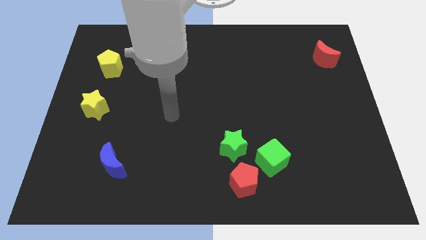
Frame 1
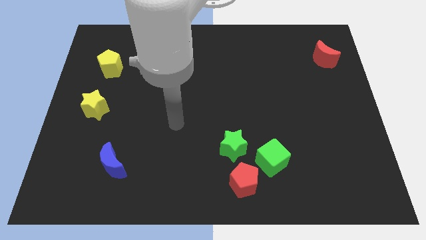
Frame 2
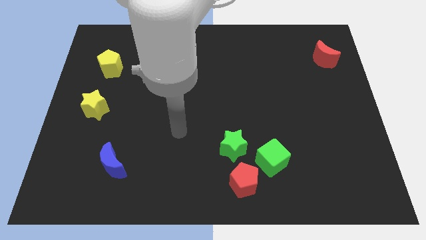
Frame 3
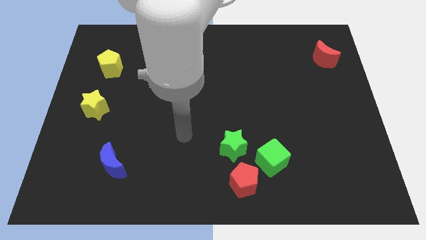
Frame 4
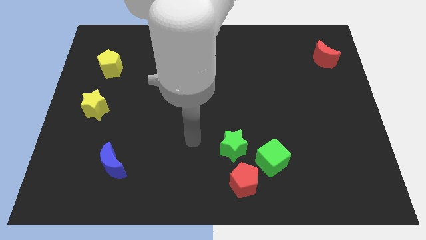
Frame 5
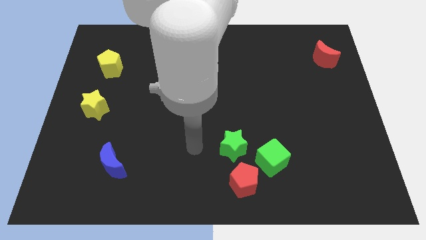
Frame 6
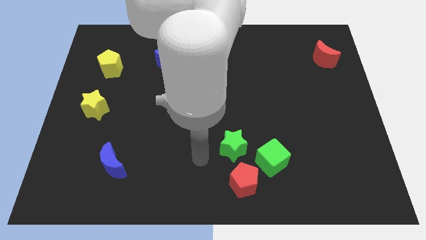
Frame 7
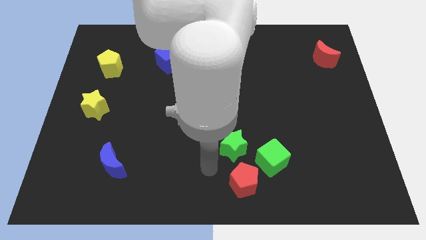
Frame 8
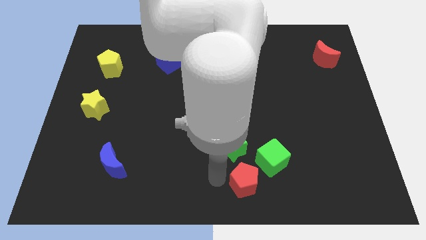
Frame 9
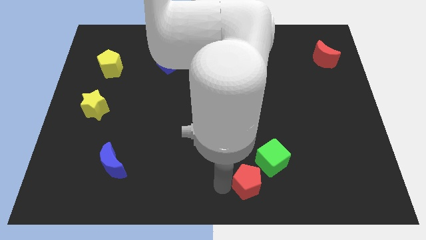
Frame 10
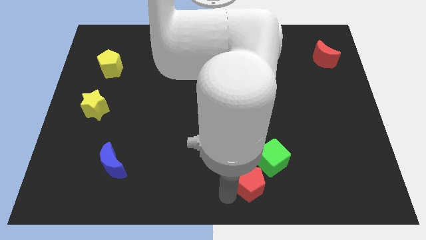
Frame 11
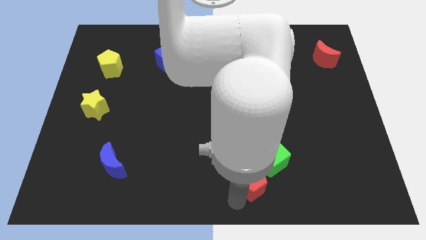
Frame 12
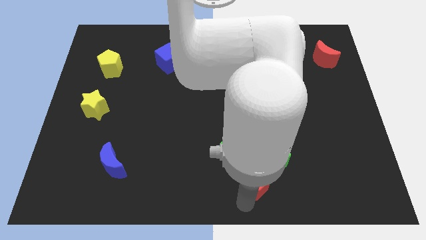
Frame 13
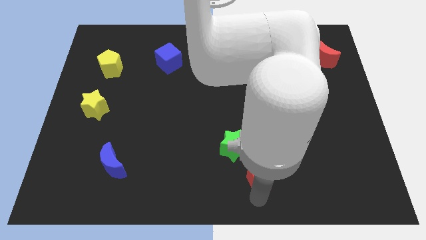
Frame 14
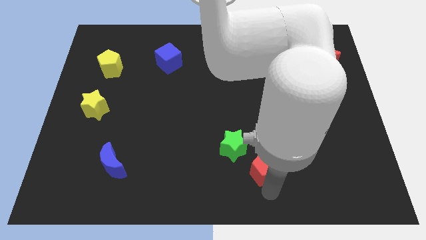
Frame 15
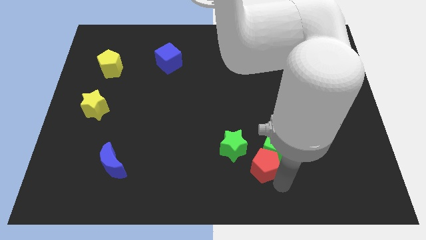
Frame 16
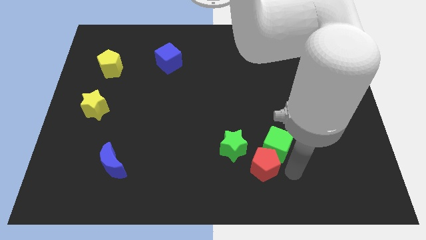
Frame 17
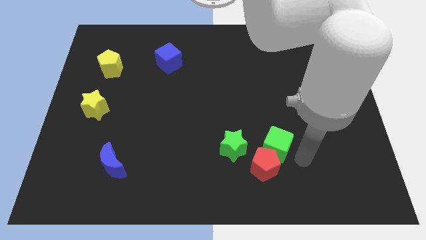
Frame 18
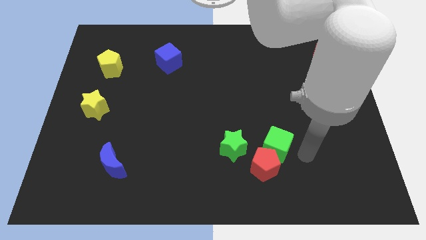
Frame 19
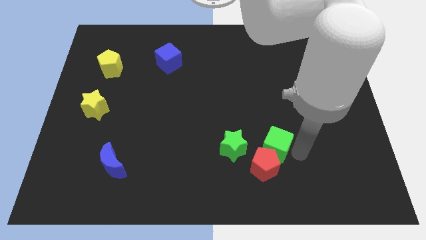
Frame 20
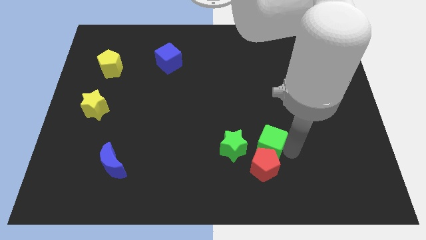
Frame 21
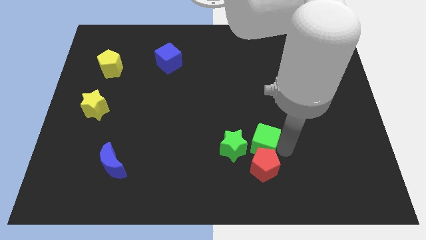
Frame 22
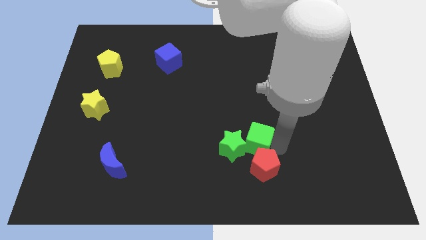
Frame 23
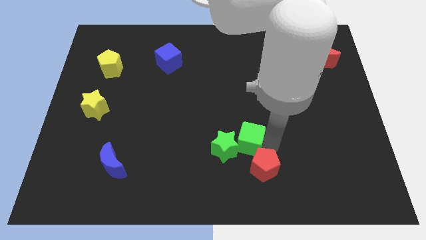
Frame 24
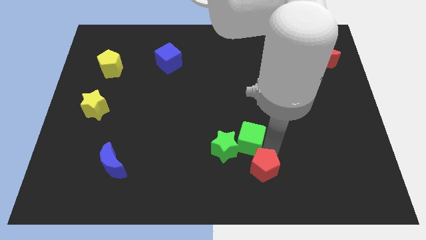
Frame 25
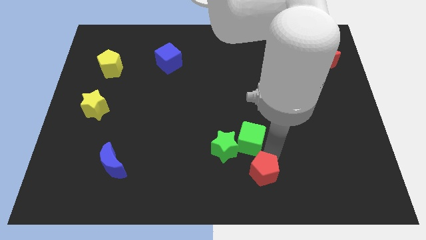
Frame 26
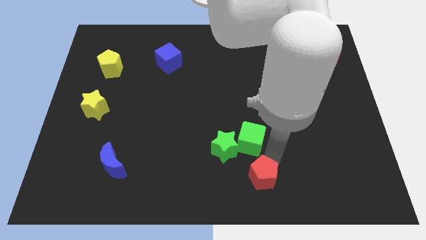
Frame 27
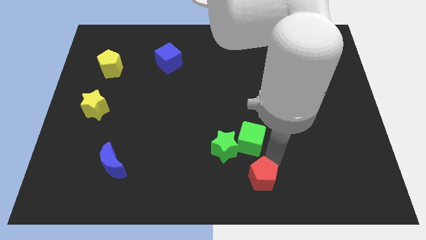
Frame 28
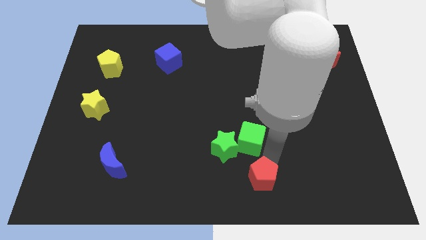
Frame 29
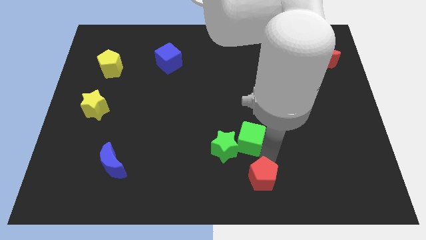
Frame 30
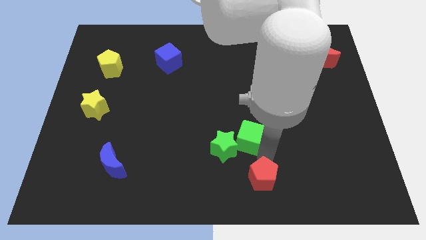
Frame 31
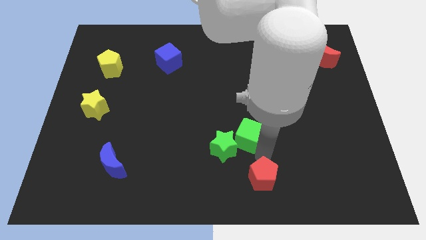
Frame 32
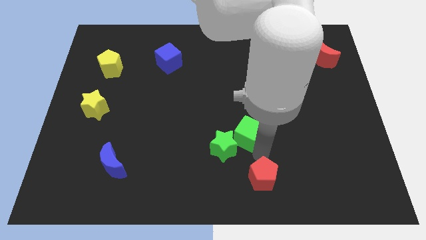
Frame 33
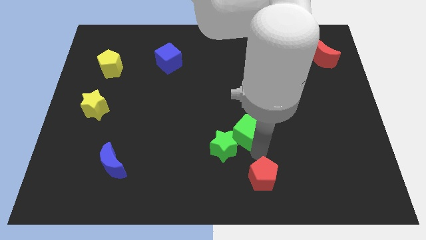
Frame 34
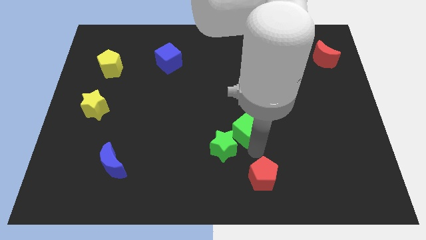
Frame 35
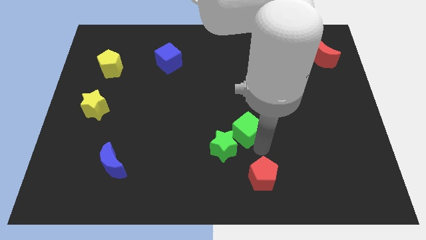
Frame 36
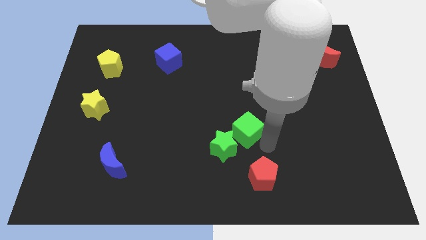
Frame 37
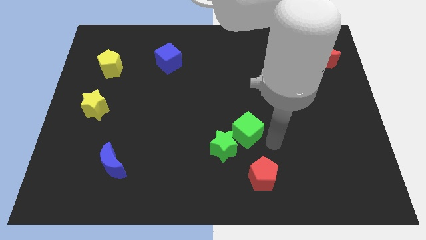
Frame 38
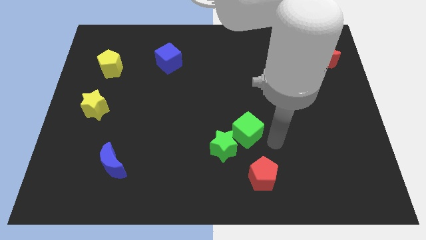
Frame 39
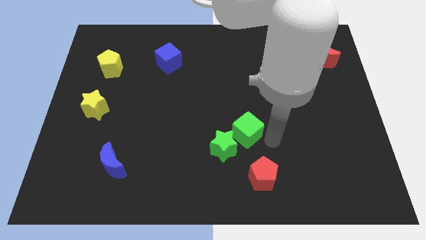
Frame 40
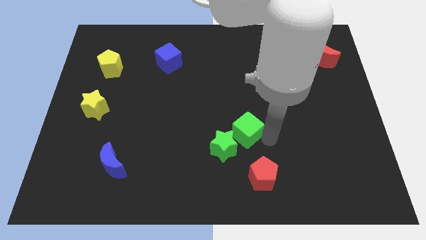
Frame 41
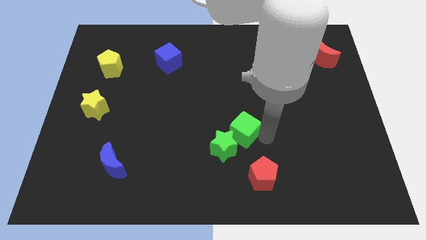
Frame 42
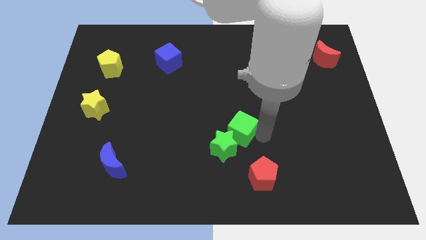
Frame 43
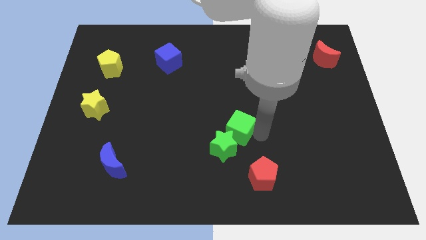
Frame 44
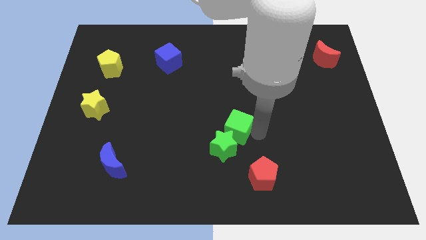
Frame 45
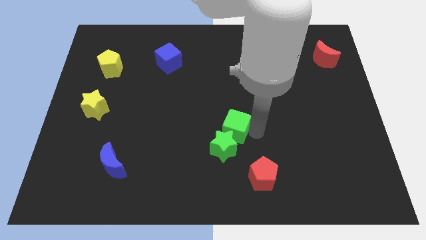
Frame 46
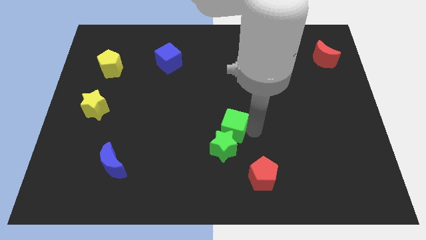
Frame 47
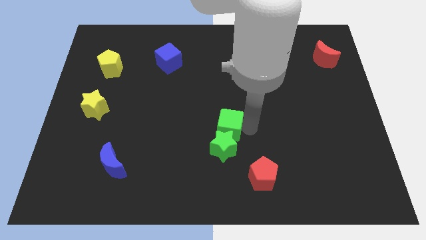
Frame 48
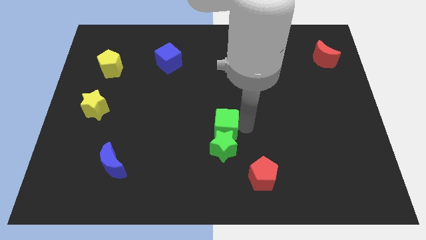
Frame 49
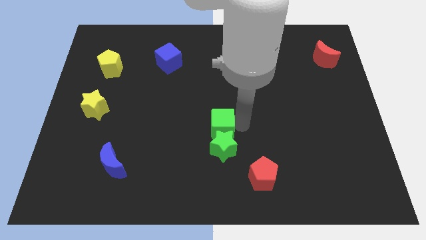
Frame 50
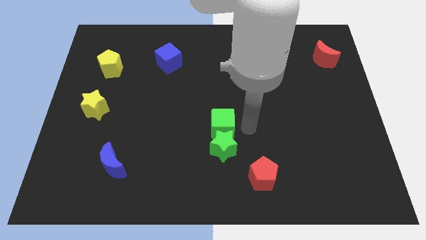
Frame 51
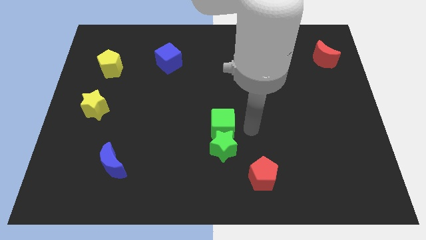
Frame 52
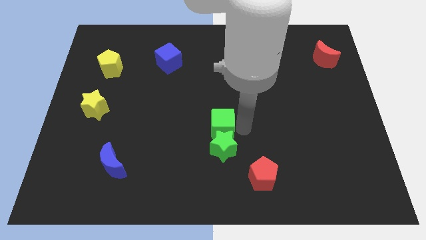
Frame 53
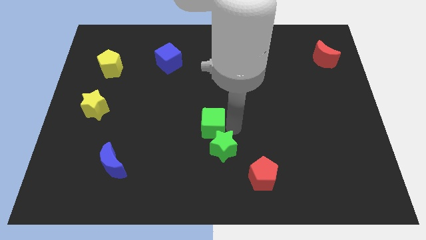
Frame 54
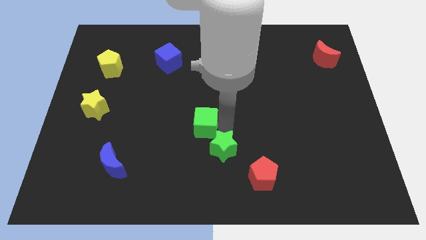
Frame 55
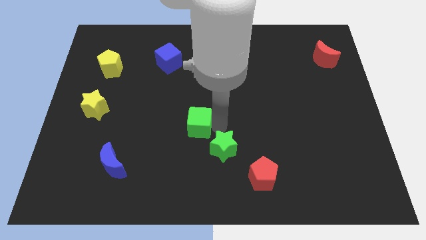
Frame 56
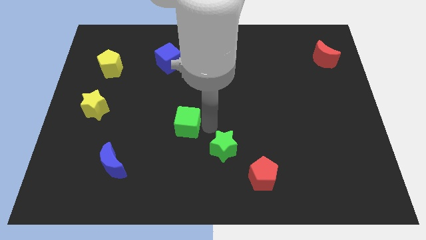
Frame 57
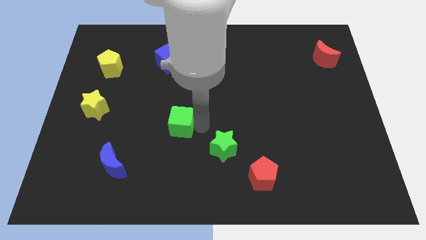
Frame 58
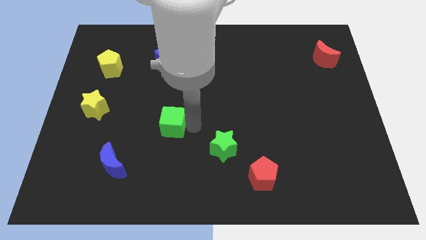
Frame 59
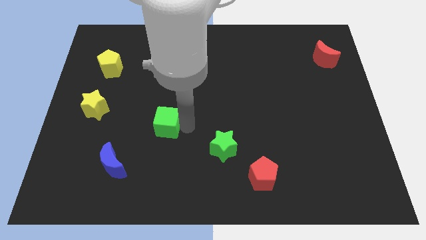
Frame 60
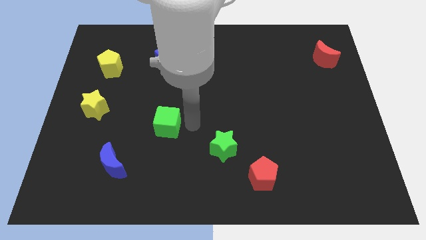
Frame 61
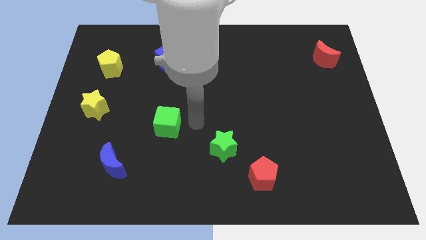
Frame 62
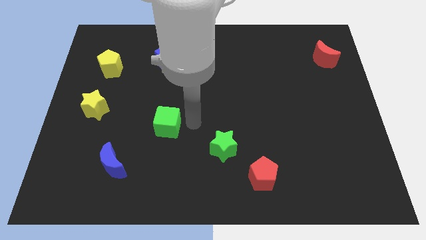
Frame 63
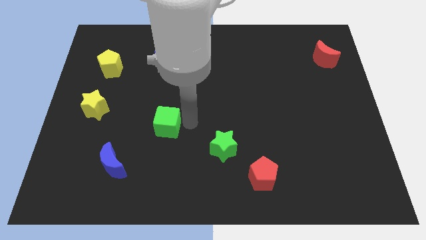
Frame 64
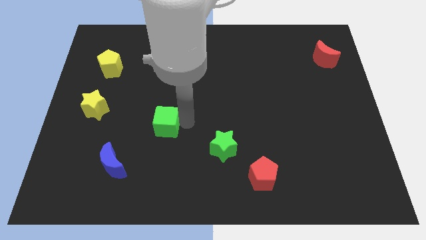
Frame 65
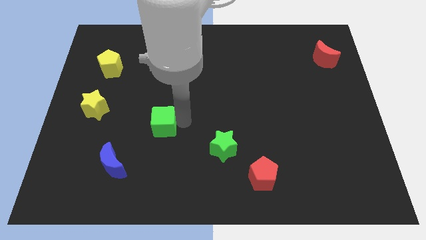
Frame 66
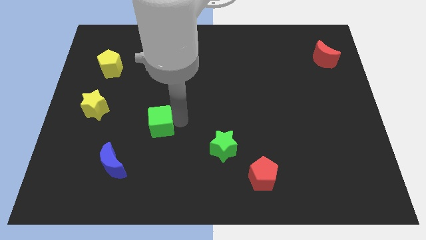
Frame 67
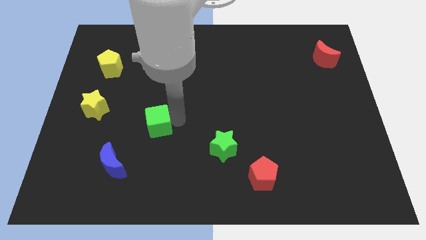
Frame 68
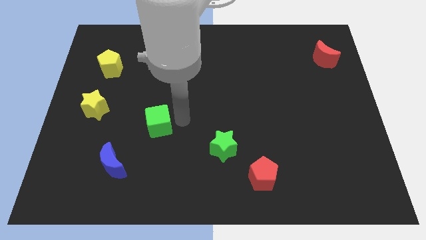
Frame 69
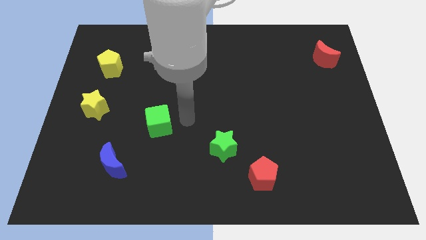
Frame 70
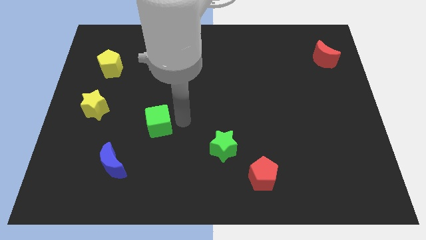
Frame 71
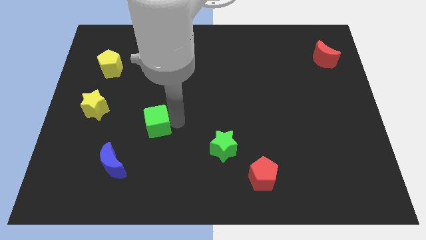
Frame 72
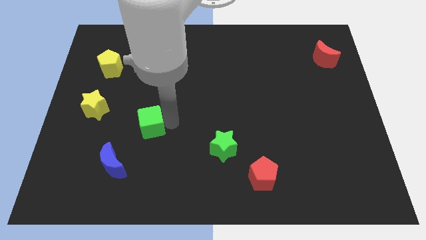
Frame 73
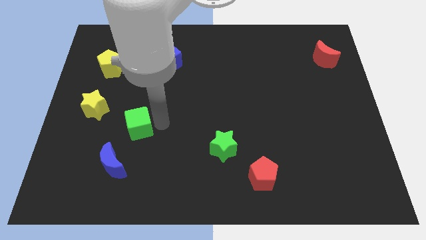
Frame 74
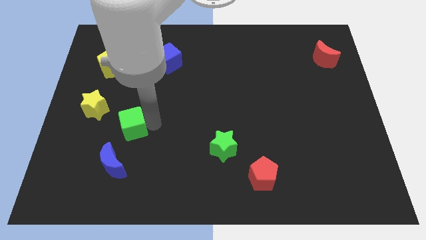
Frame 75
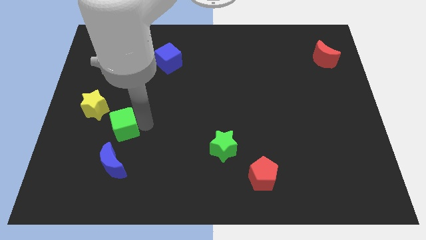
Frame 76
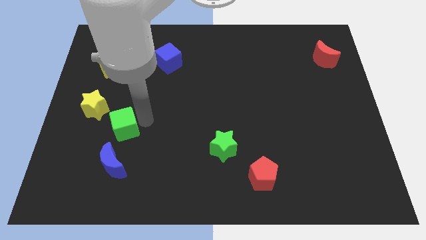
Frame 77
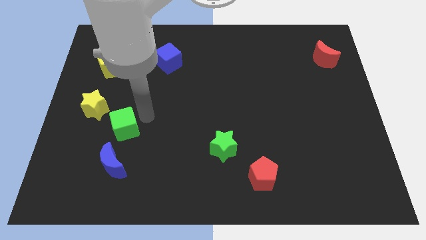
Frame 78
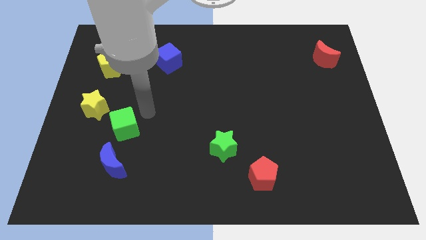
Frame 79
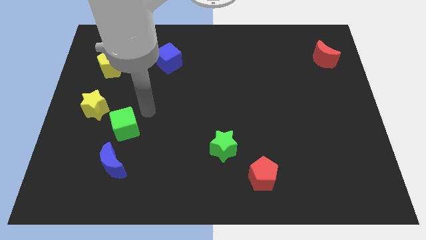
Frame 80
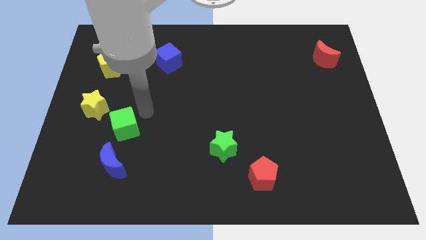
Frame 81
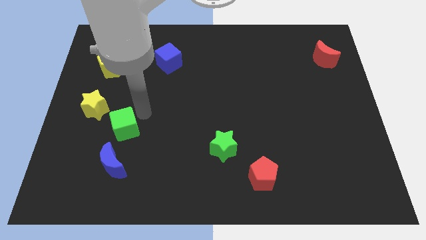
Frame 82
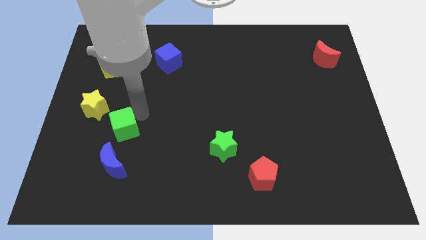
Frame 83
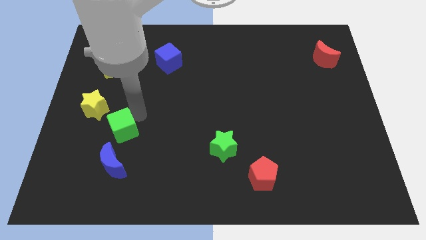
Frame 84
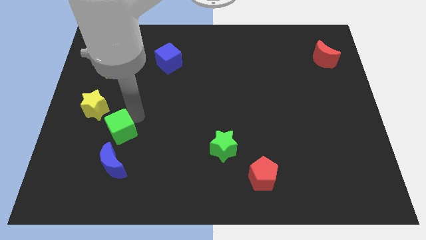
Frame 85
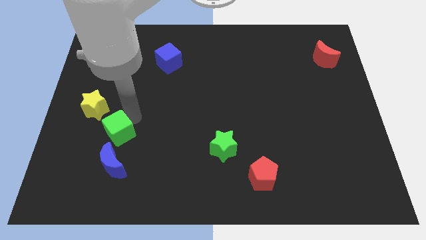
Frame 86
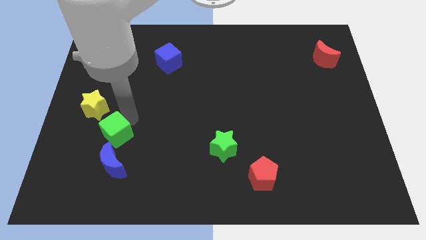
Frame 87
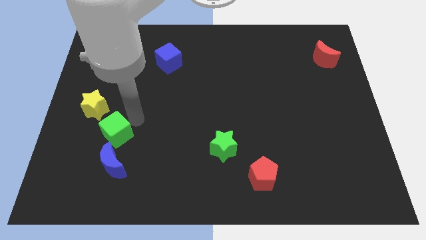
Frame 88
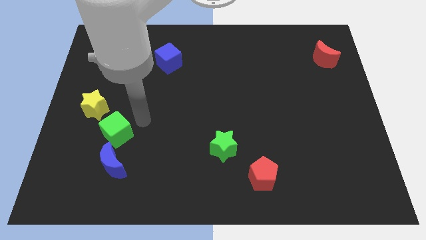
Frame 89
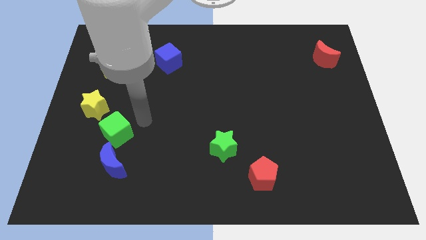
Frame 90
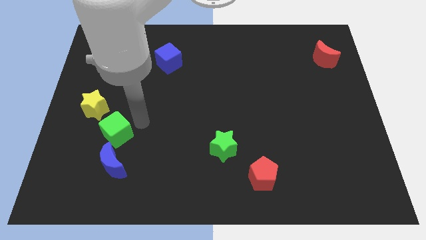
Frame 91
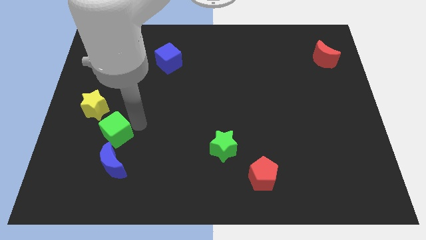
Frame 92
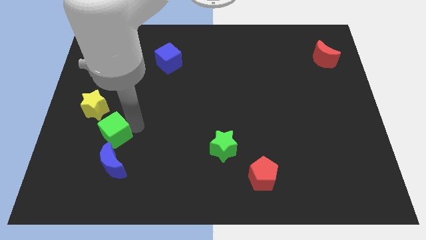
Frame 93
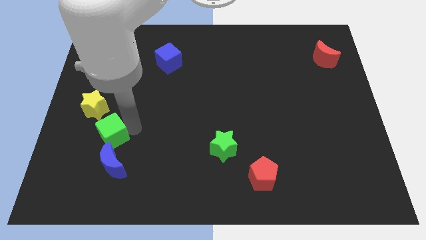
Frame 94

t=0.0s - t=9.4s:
slide the green cube to the top left side of the blue moon
